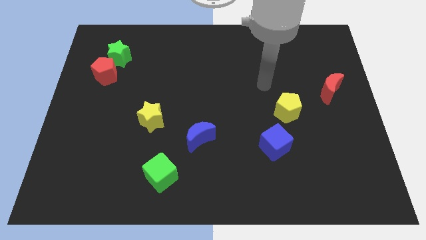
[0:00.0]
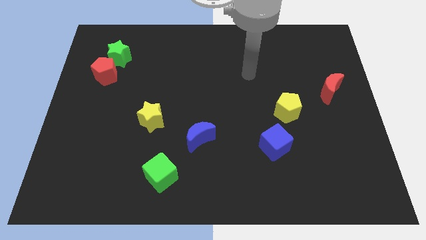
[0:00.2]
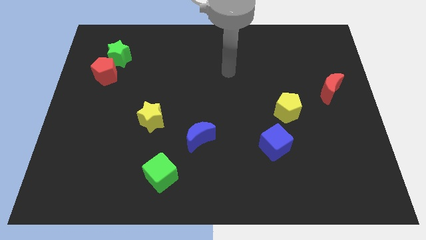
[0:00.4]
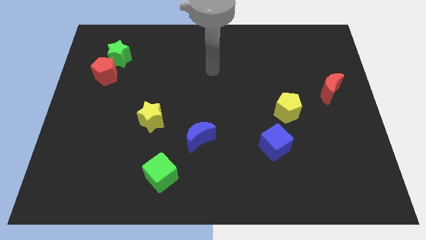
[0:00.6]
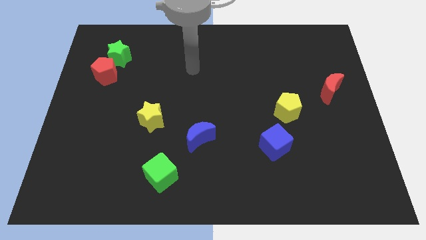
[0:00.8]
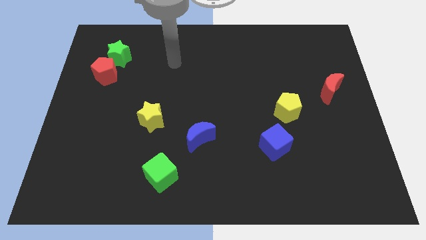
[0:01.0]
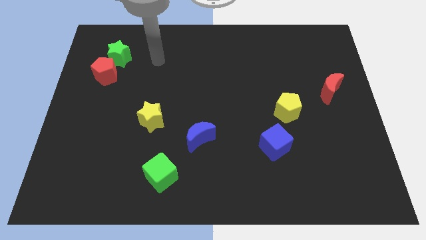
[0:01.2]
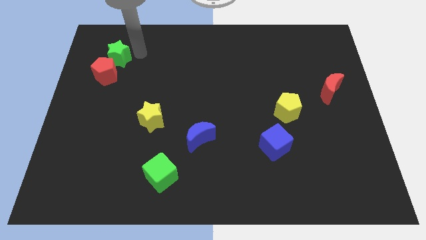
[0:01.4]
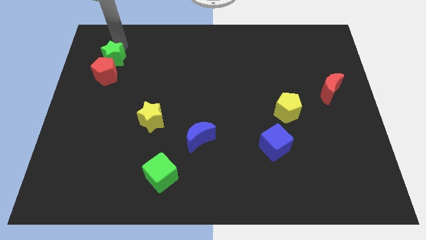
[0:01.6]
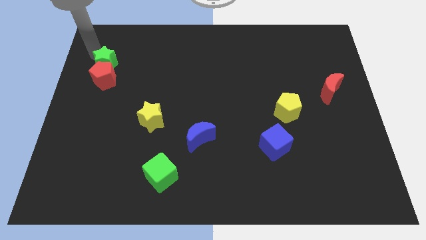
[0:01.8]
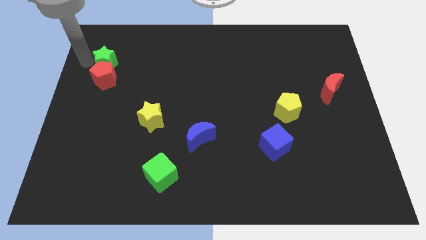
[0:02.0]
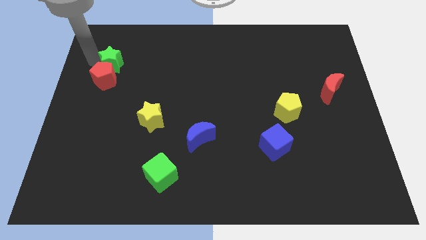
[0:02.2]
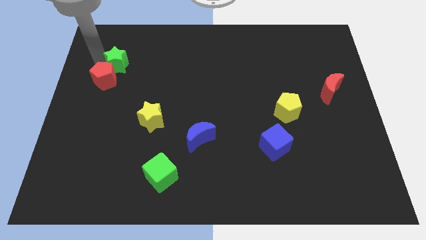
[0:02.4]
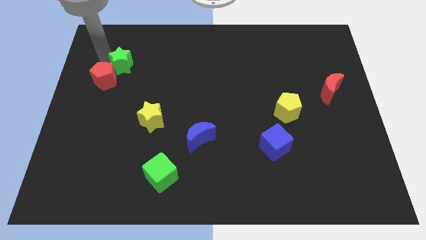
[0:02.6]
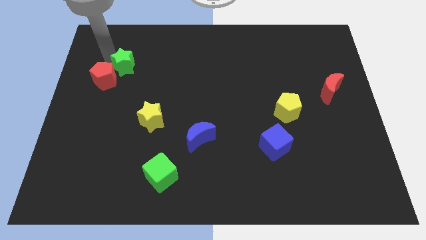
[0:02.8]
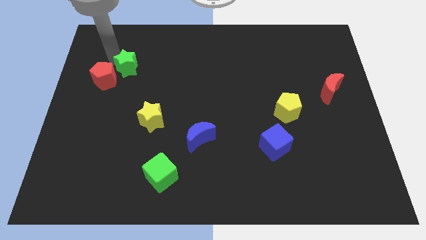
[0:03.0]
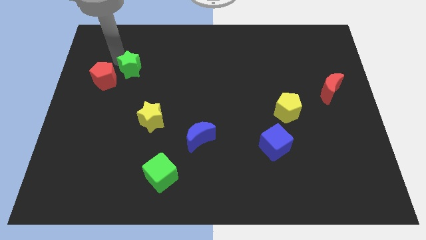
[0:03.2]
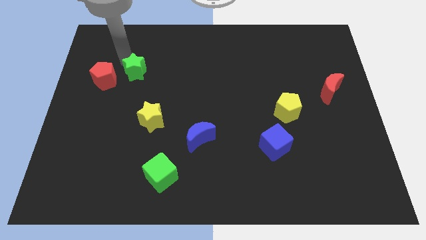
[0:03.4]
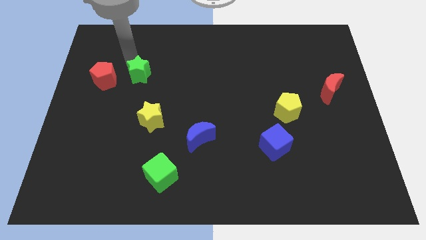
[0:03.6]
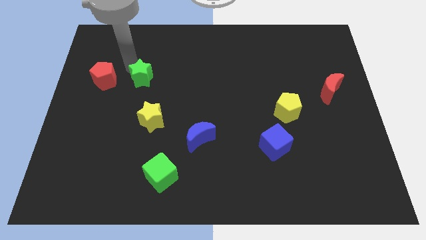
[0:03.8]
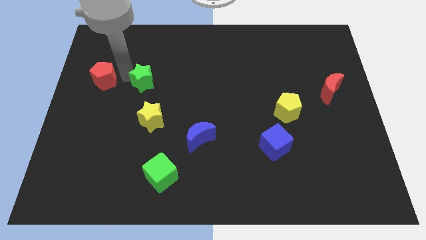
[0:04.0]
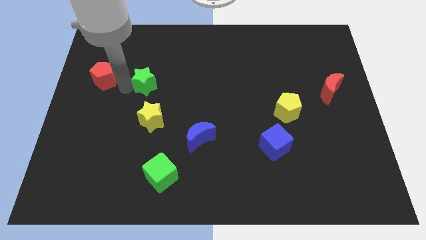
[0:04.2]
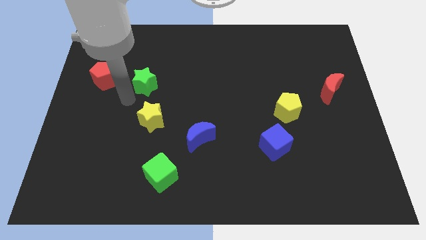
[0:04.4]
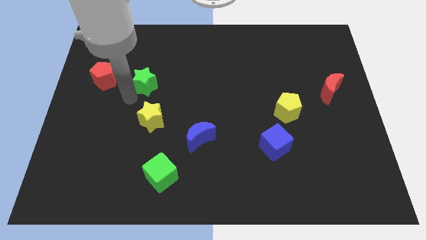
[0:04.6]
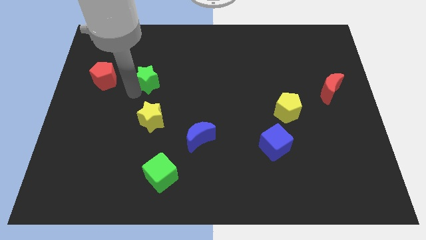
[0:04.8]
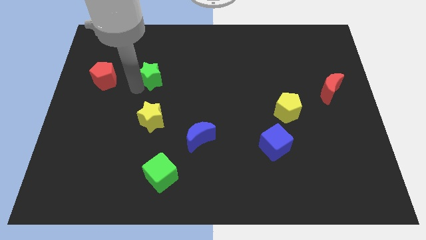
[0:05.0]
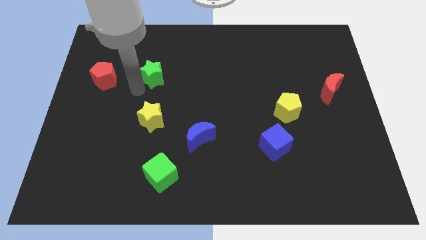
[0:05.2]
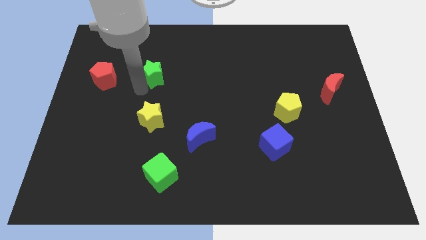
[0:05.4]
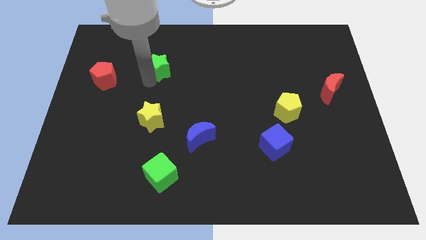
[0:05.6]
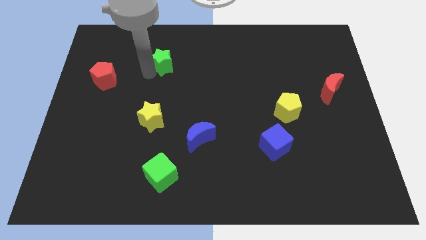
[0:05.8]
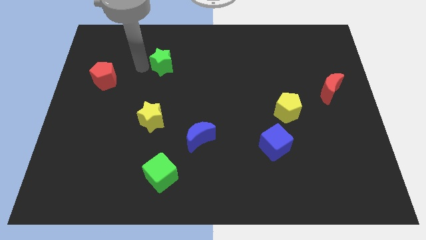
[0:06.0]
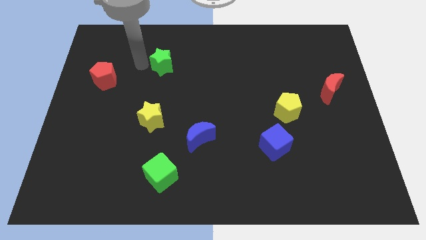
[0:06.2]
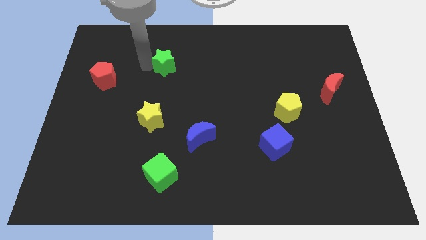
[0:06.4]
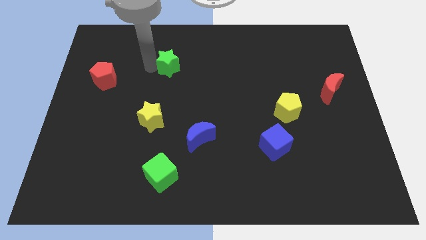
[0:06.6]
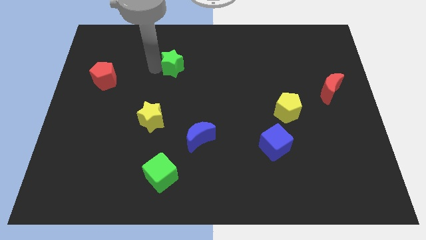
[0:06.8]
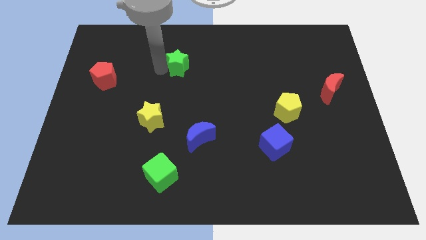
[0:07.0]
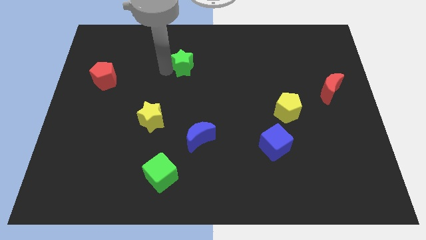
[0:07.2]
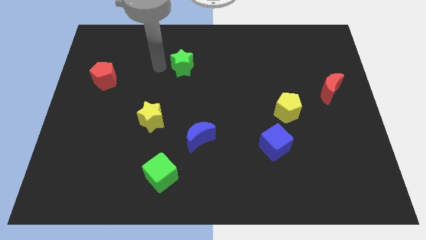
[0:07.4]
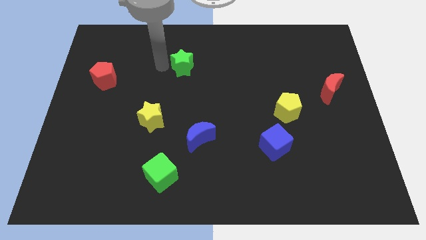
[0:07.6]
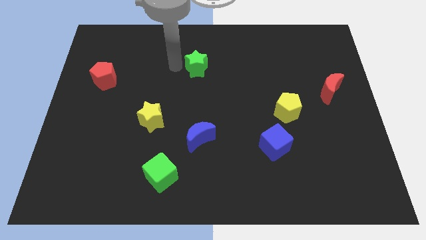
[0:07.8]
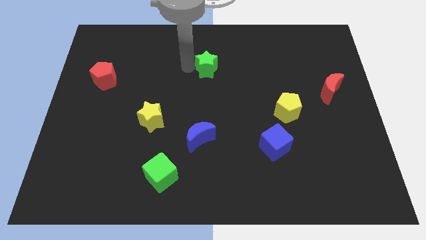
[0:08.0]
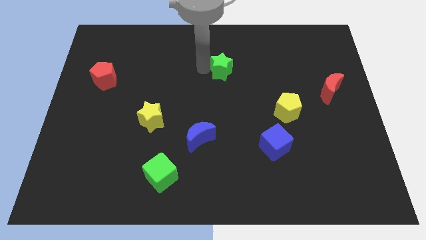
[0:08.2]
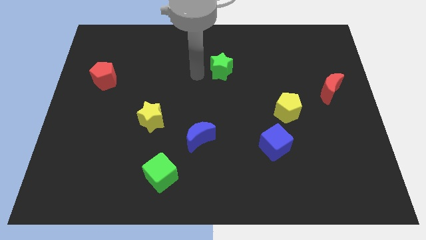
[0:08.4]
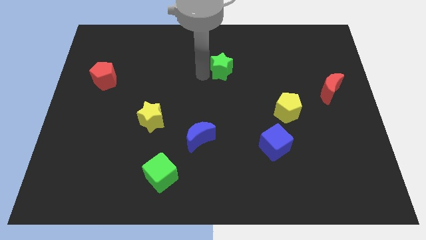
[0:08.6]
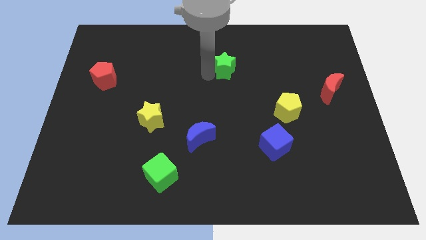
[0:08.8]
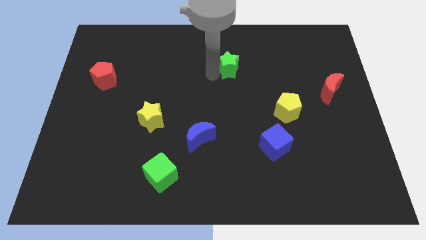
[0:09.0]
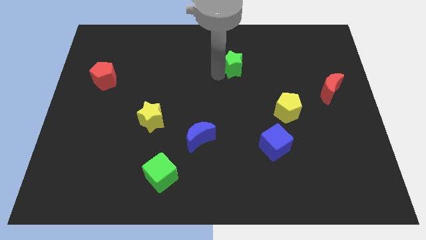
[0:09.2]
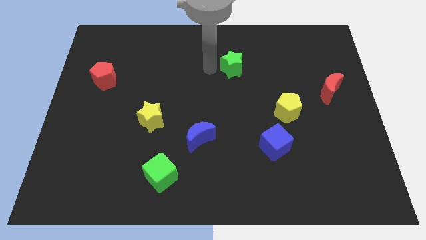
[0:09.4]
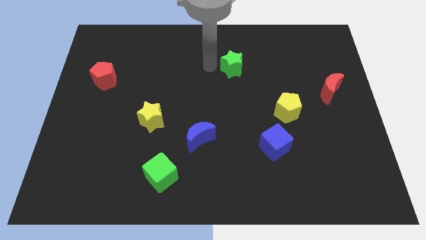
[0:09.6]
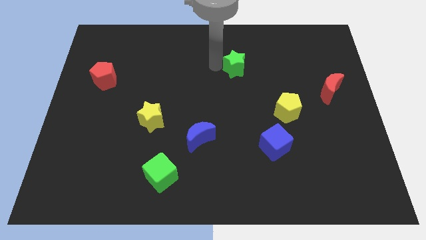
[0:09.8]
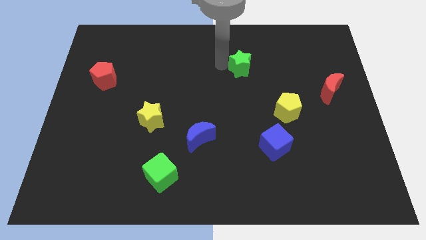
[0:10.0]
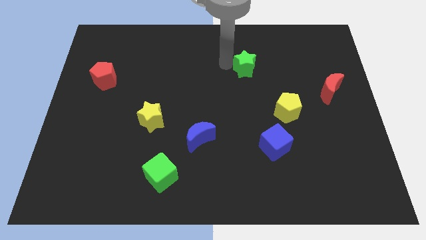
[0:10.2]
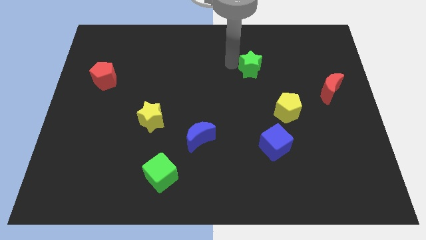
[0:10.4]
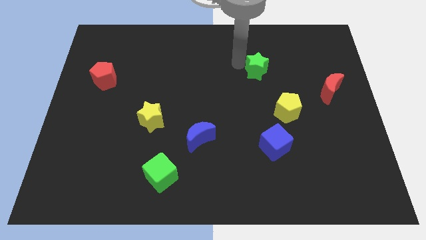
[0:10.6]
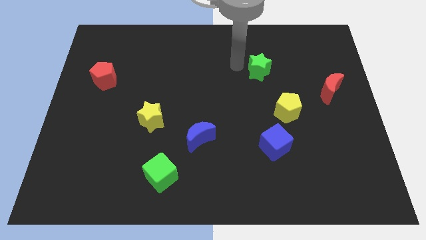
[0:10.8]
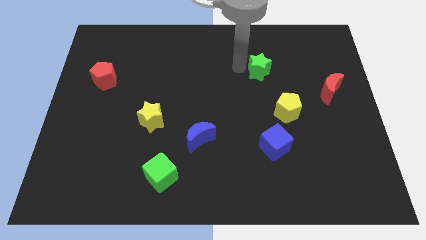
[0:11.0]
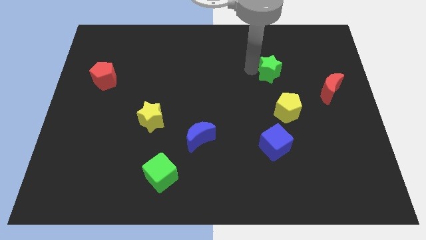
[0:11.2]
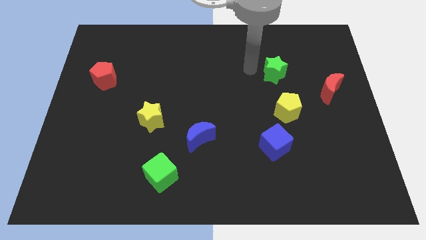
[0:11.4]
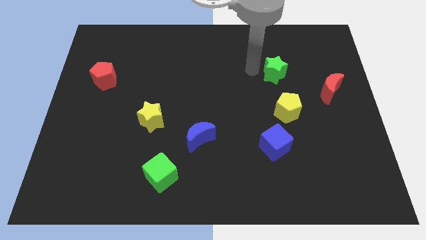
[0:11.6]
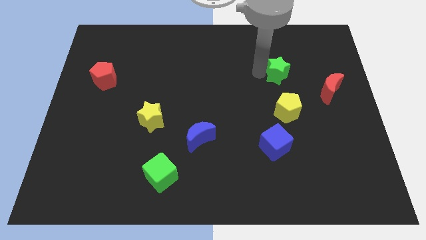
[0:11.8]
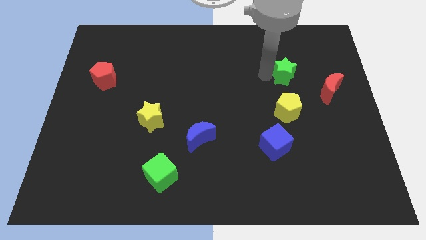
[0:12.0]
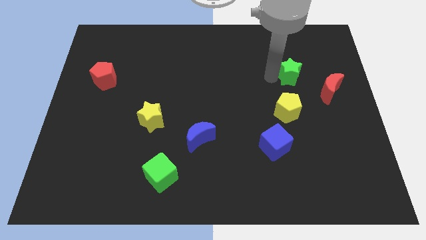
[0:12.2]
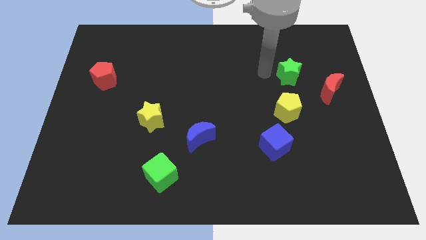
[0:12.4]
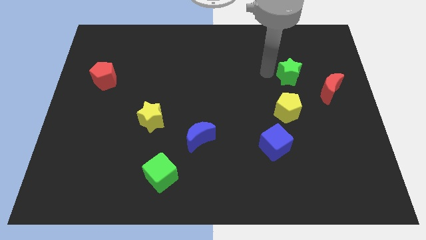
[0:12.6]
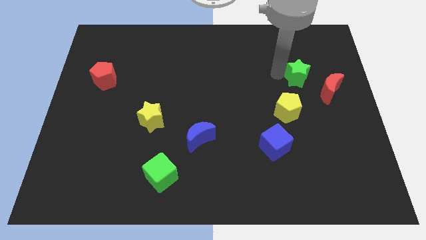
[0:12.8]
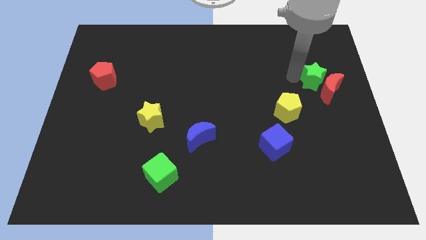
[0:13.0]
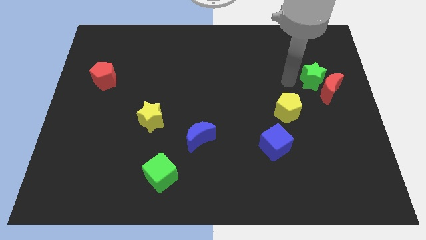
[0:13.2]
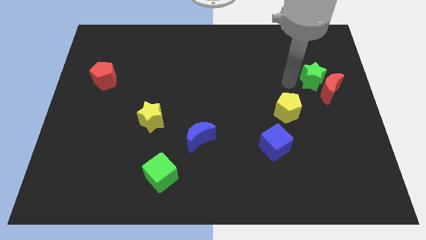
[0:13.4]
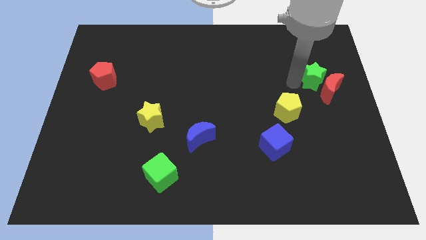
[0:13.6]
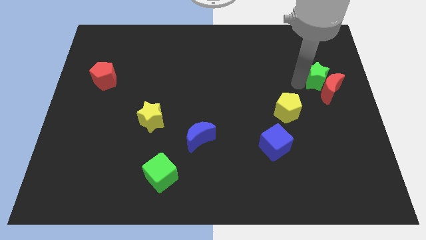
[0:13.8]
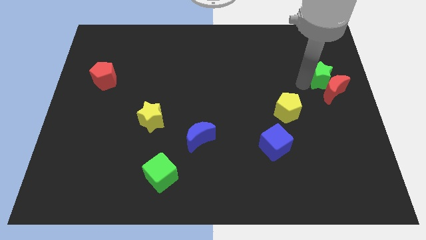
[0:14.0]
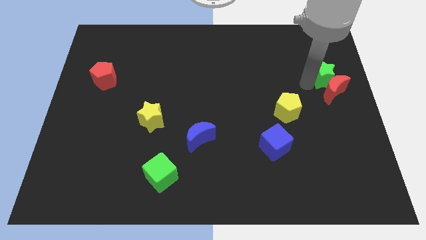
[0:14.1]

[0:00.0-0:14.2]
put the green star to the right side
